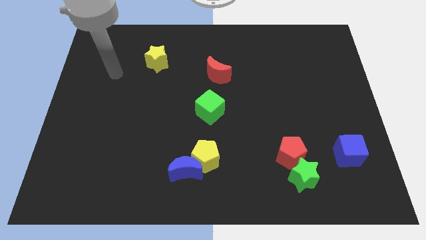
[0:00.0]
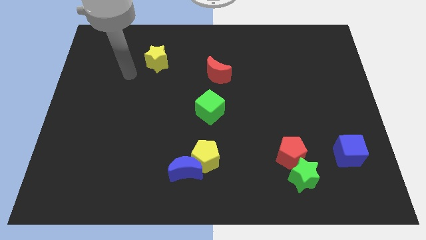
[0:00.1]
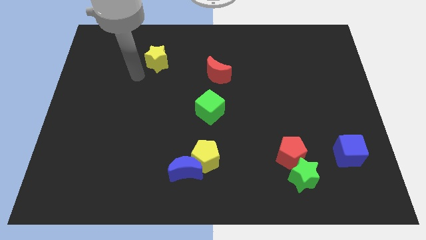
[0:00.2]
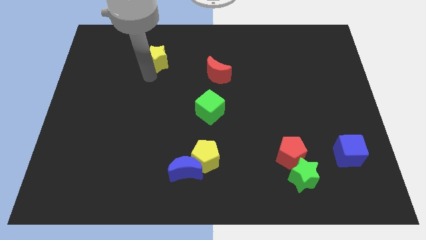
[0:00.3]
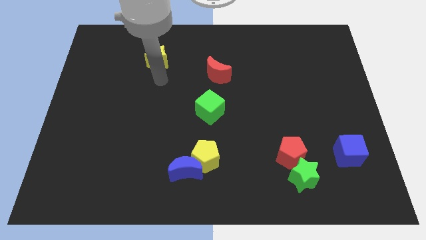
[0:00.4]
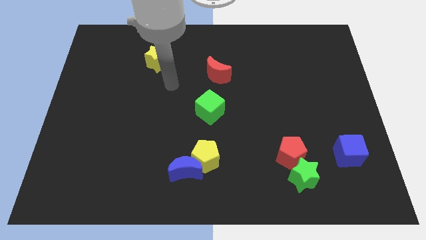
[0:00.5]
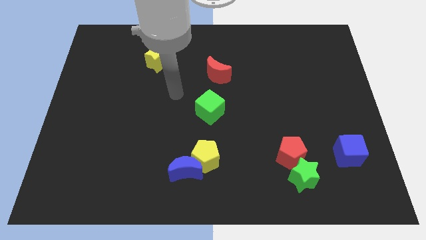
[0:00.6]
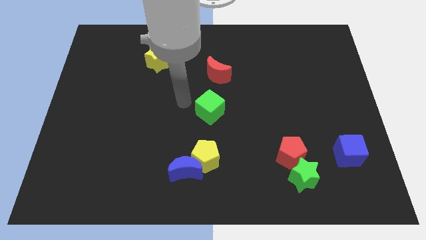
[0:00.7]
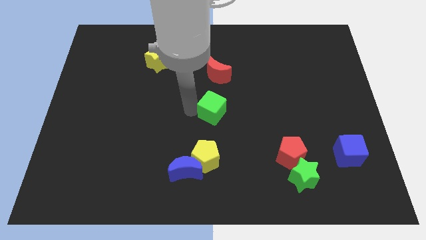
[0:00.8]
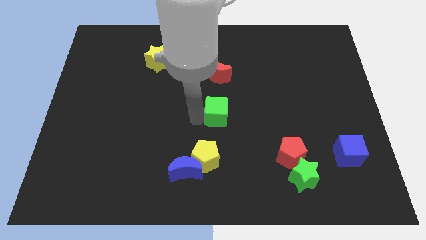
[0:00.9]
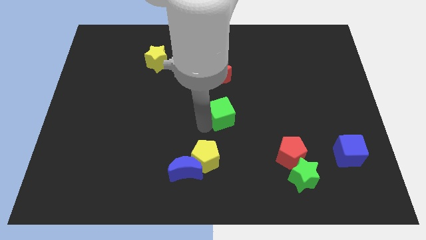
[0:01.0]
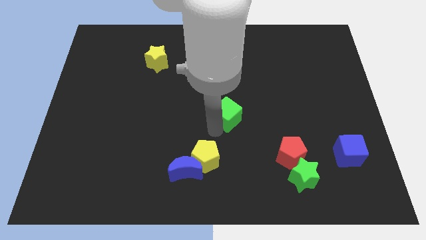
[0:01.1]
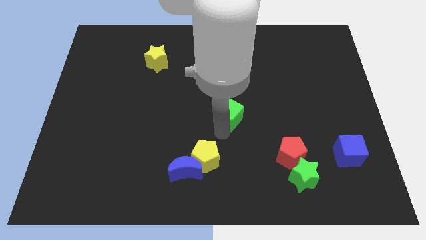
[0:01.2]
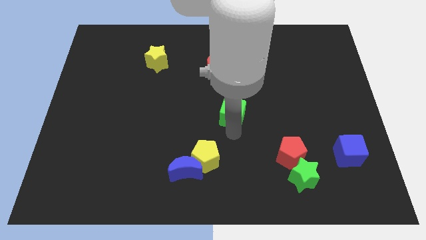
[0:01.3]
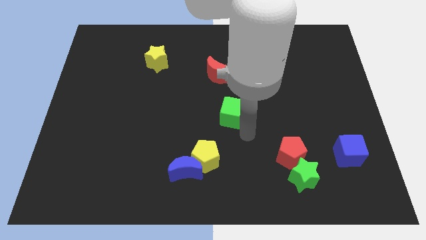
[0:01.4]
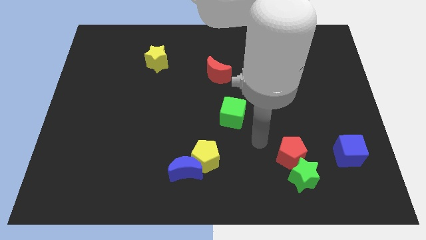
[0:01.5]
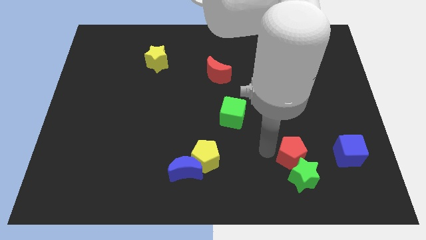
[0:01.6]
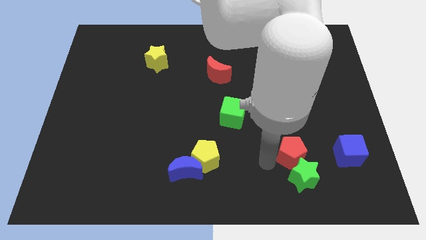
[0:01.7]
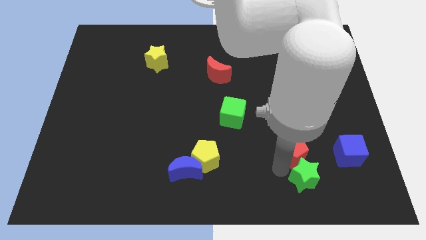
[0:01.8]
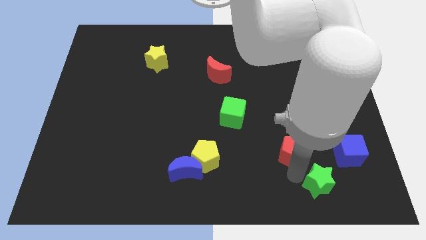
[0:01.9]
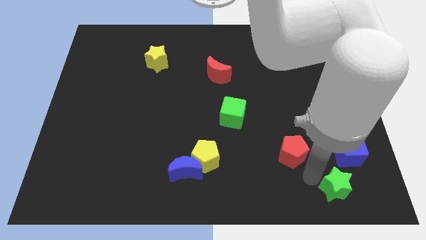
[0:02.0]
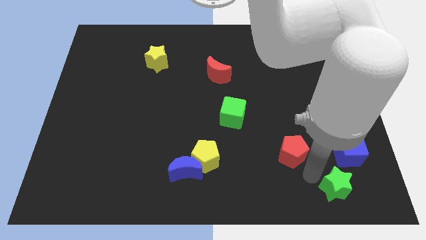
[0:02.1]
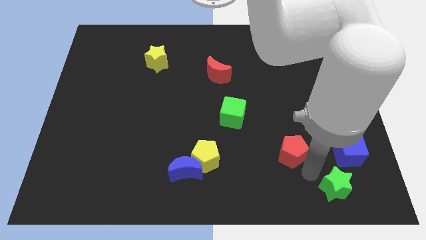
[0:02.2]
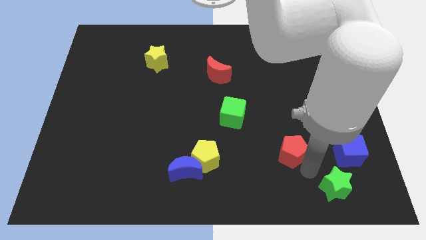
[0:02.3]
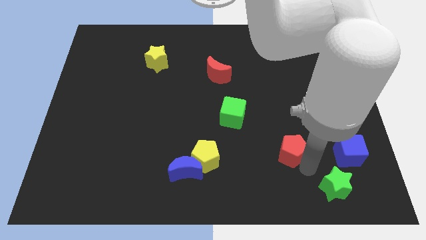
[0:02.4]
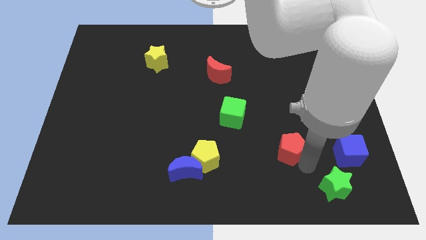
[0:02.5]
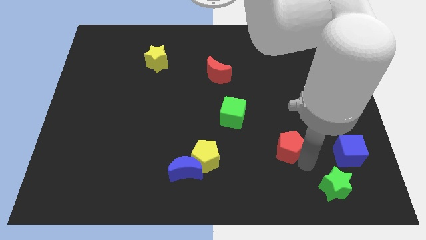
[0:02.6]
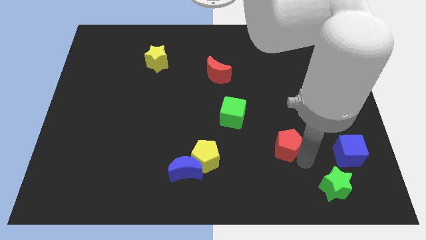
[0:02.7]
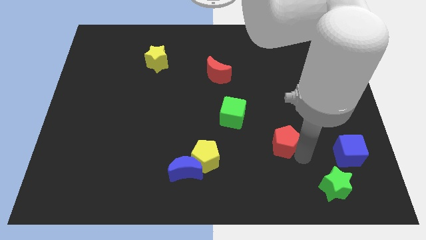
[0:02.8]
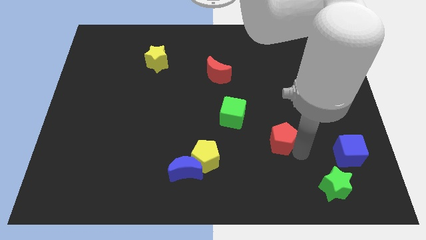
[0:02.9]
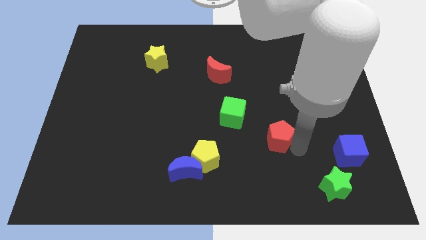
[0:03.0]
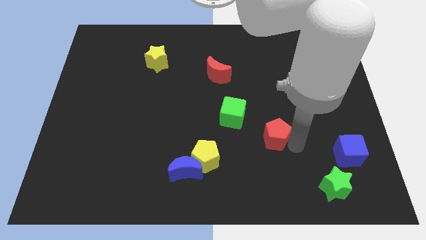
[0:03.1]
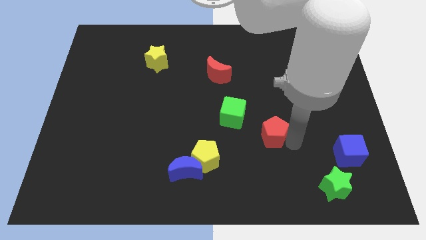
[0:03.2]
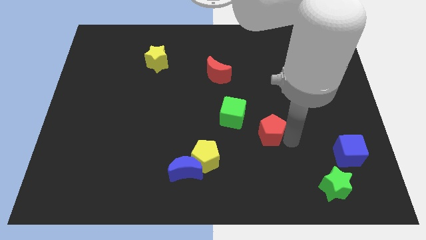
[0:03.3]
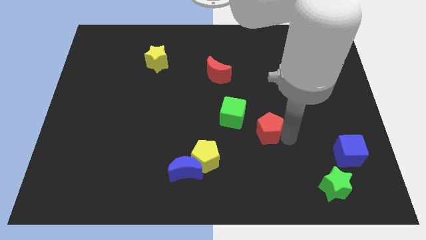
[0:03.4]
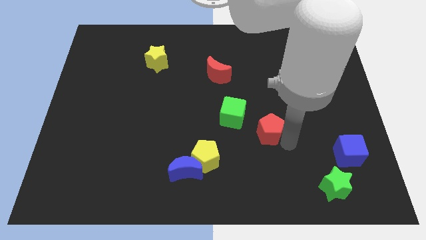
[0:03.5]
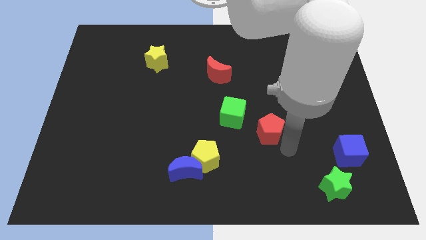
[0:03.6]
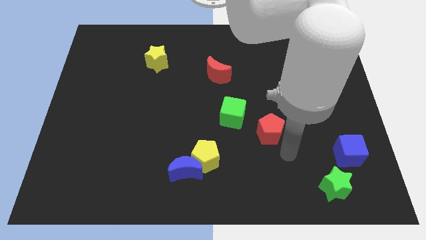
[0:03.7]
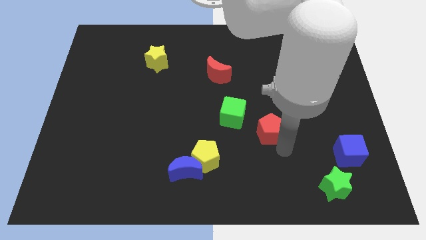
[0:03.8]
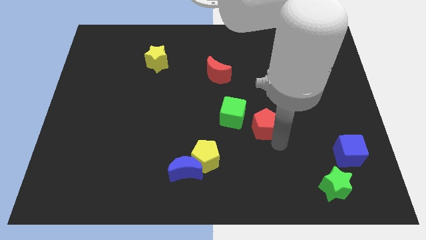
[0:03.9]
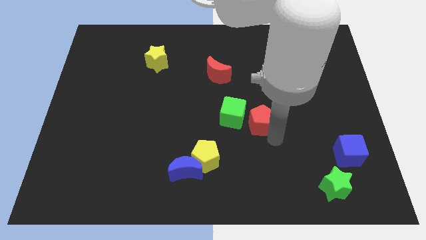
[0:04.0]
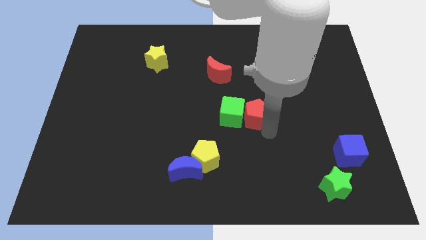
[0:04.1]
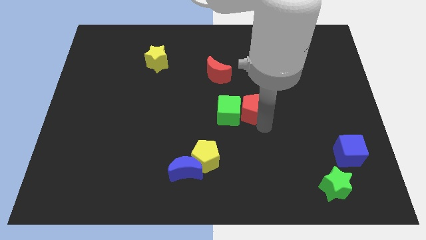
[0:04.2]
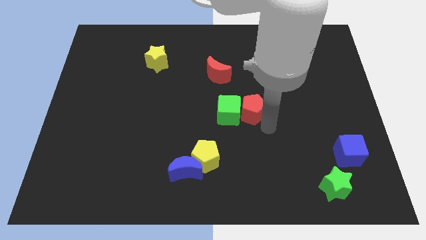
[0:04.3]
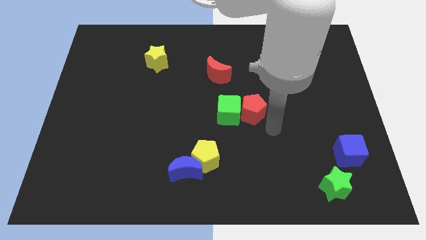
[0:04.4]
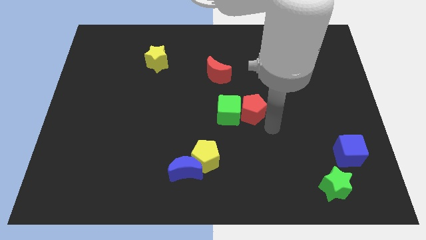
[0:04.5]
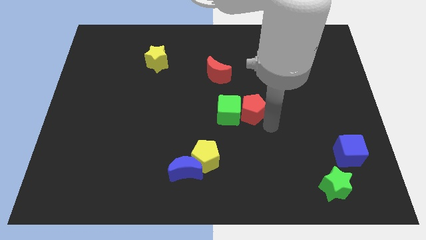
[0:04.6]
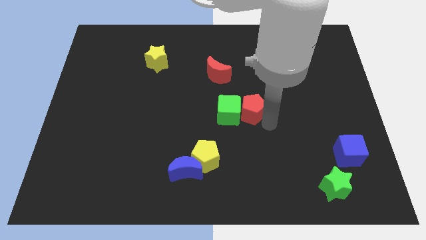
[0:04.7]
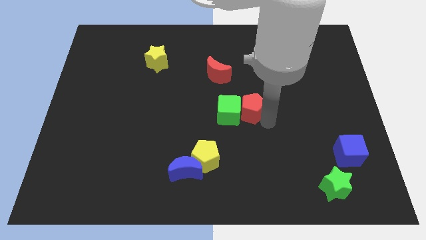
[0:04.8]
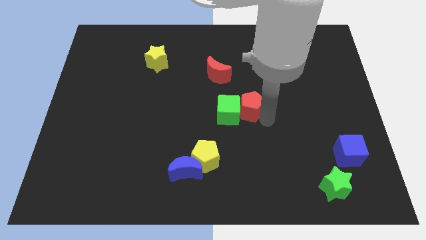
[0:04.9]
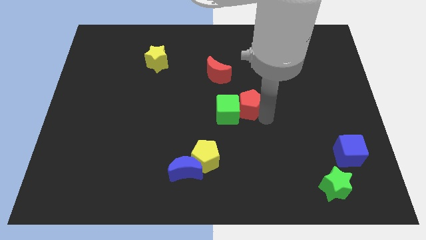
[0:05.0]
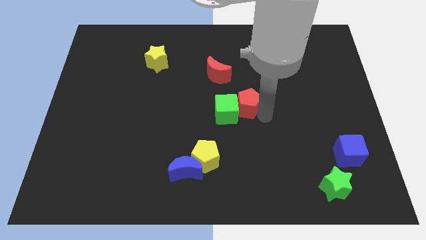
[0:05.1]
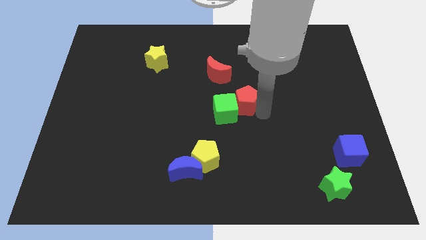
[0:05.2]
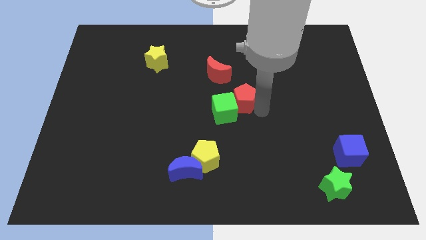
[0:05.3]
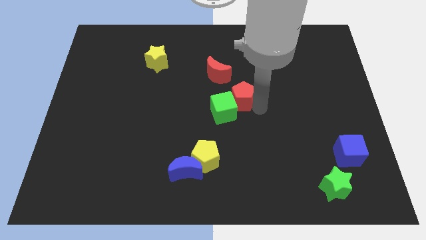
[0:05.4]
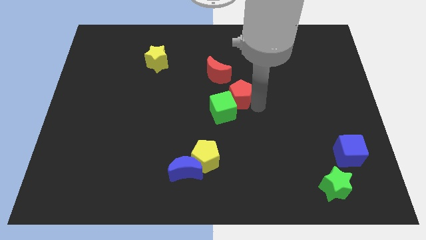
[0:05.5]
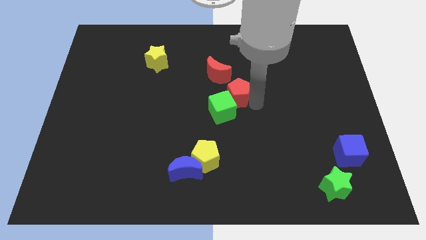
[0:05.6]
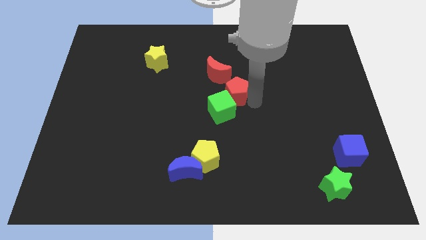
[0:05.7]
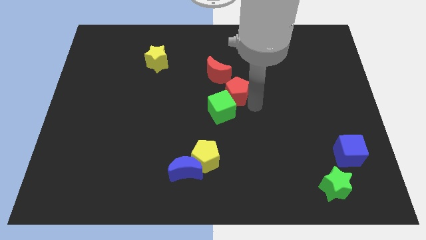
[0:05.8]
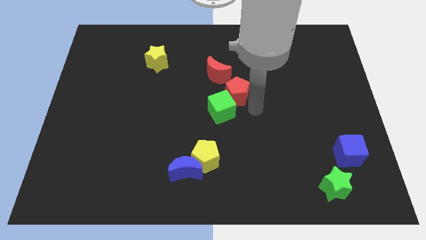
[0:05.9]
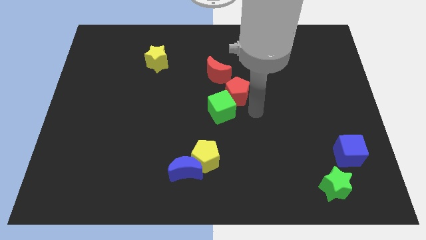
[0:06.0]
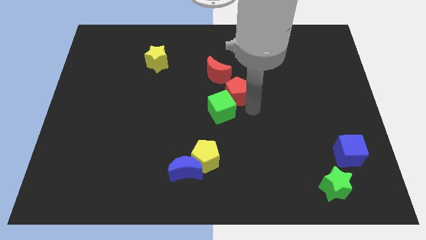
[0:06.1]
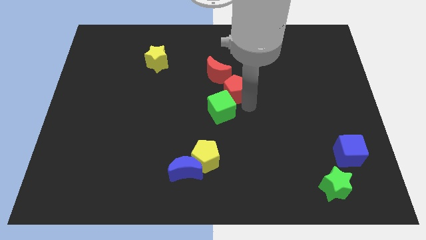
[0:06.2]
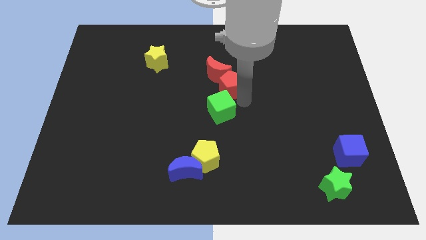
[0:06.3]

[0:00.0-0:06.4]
push the red pentagon close to the red moon

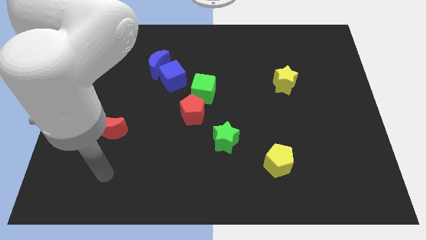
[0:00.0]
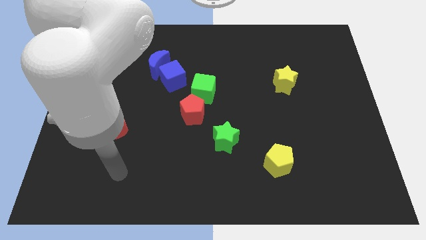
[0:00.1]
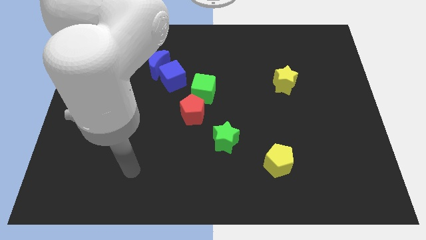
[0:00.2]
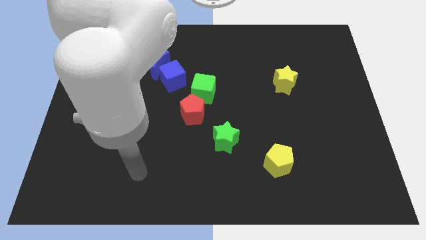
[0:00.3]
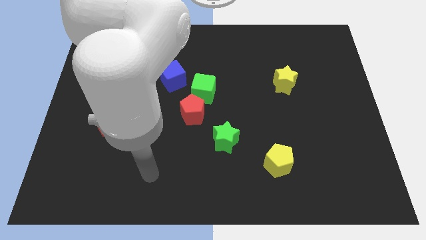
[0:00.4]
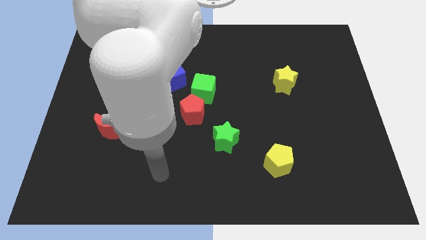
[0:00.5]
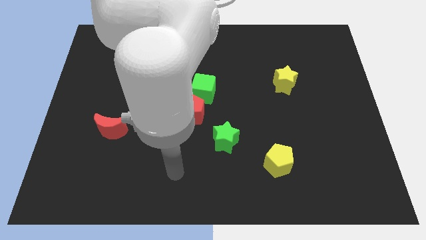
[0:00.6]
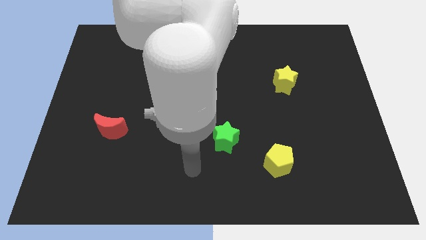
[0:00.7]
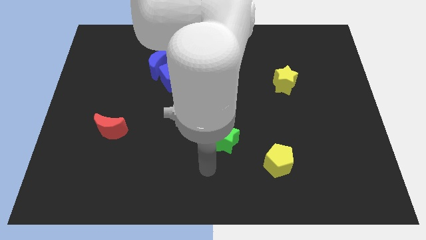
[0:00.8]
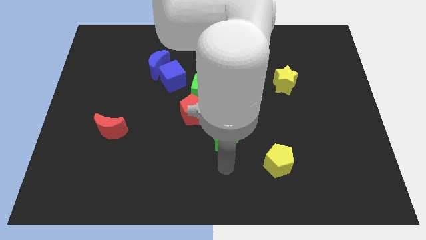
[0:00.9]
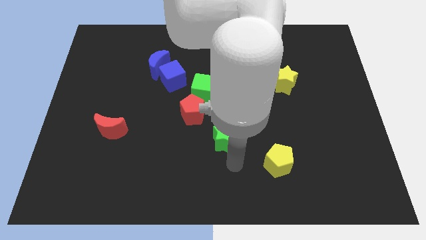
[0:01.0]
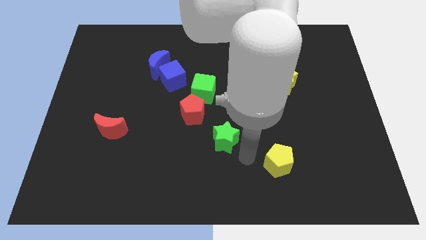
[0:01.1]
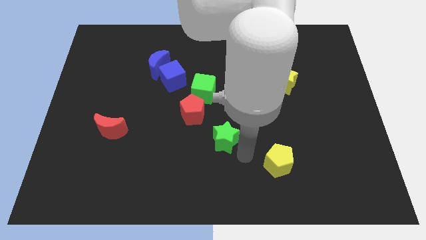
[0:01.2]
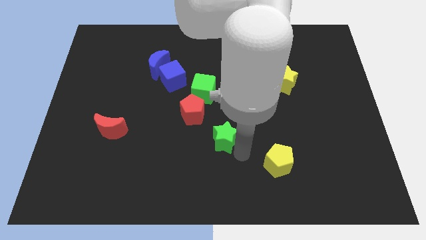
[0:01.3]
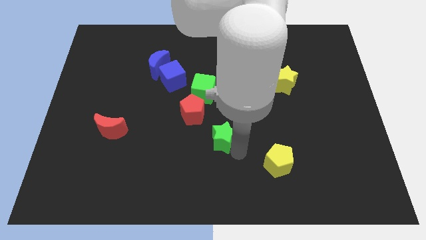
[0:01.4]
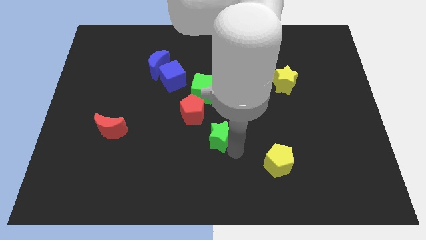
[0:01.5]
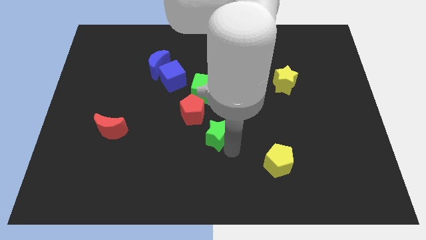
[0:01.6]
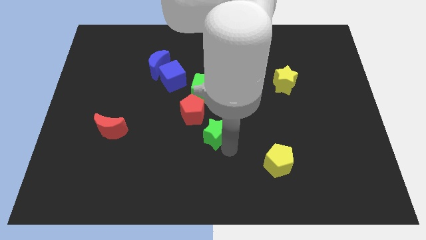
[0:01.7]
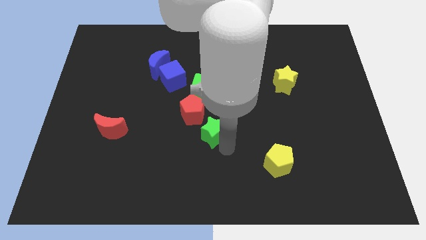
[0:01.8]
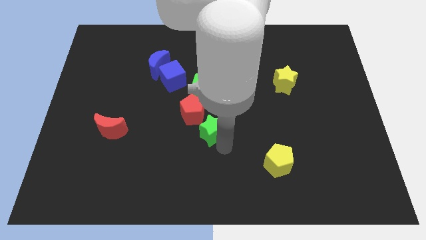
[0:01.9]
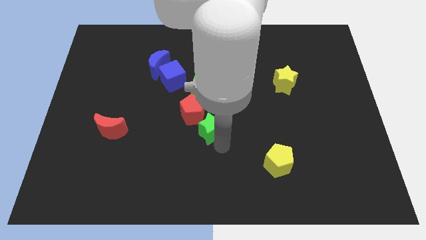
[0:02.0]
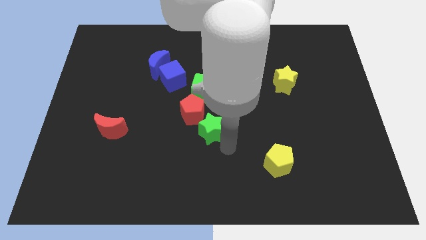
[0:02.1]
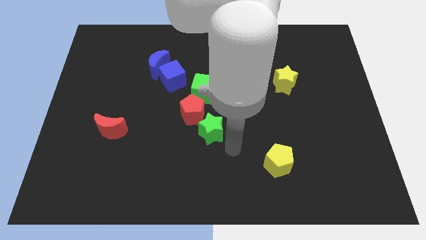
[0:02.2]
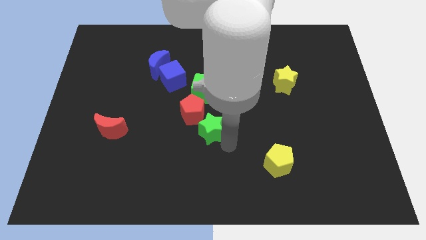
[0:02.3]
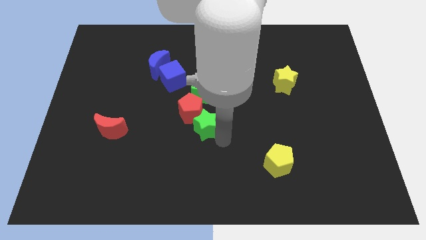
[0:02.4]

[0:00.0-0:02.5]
slide the green star next to the red pentagon
